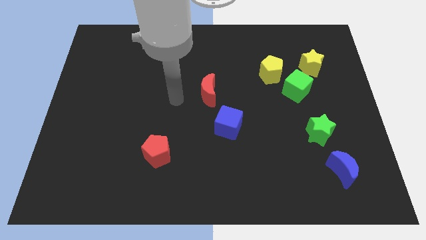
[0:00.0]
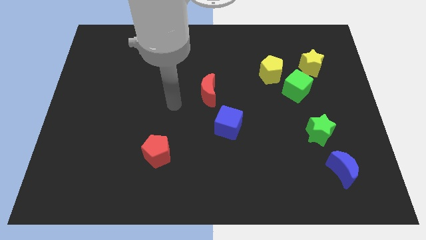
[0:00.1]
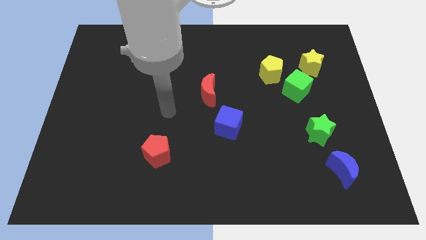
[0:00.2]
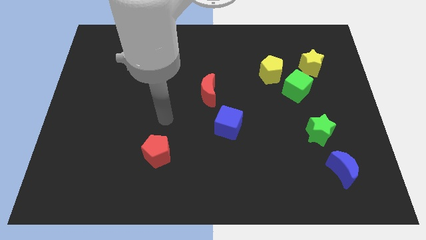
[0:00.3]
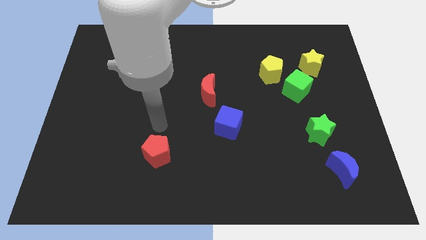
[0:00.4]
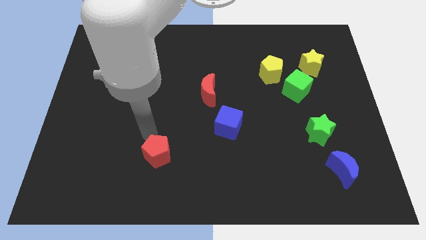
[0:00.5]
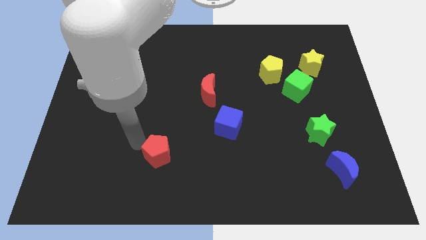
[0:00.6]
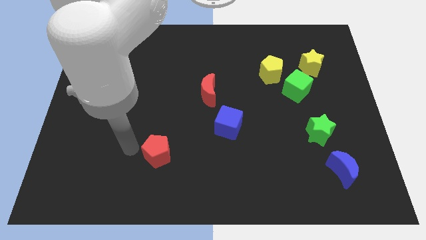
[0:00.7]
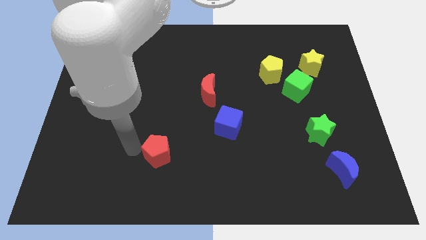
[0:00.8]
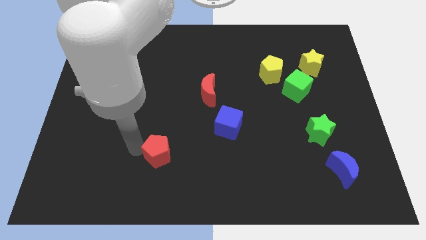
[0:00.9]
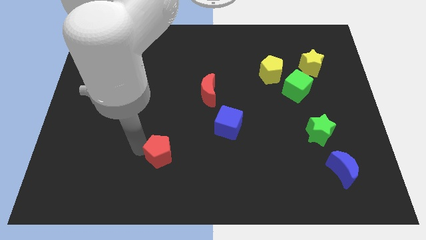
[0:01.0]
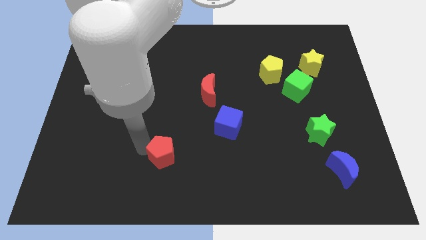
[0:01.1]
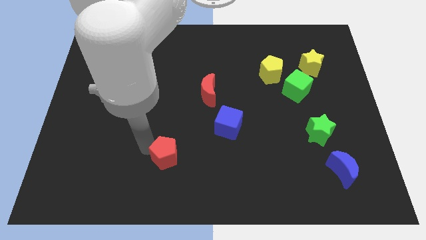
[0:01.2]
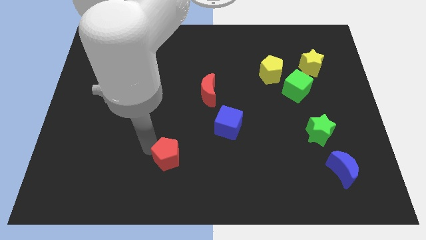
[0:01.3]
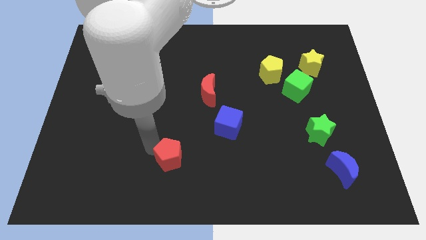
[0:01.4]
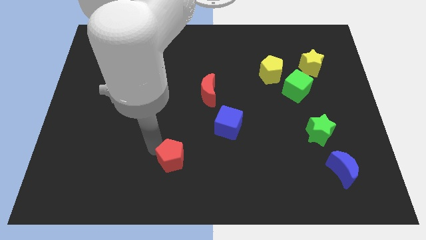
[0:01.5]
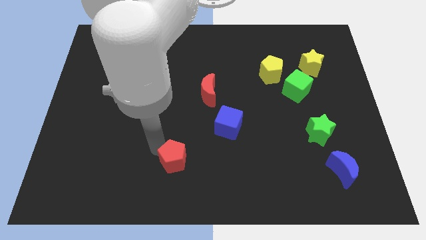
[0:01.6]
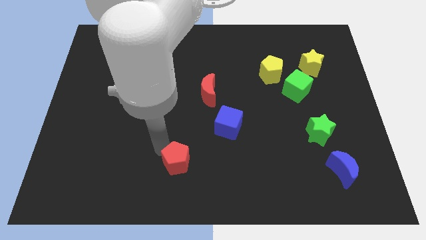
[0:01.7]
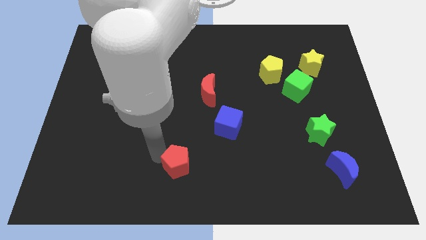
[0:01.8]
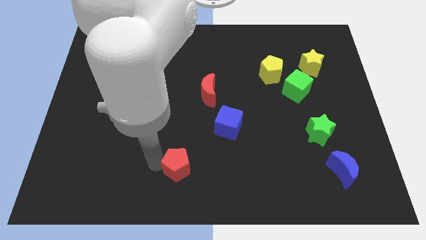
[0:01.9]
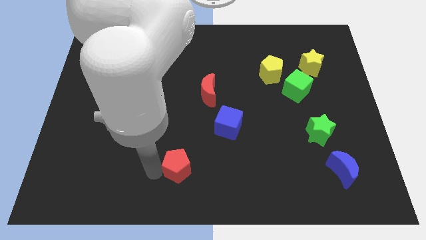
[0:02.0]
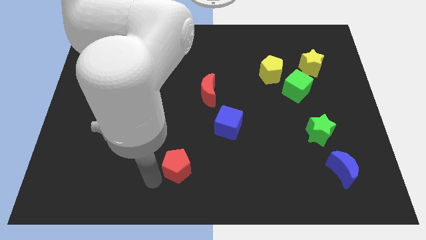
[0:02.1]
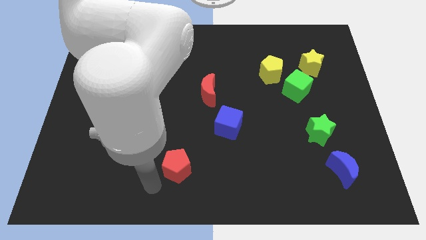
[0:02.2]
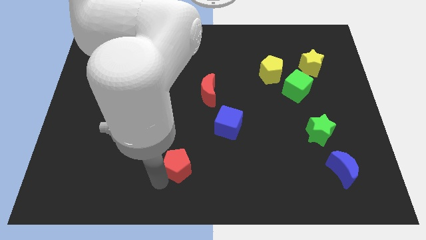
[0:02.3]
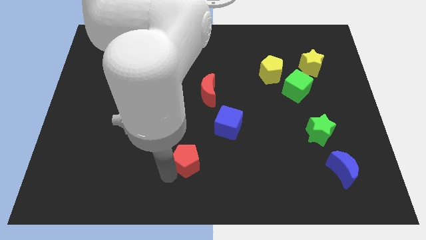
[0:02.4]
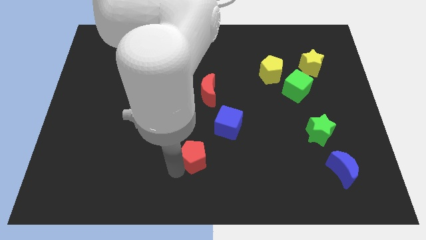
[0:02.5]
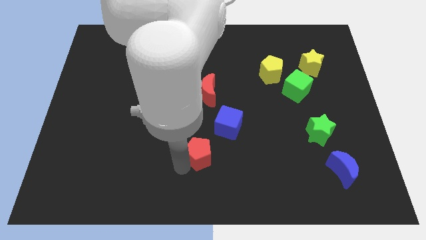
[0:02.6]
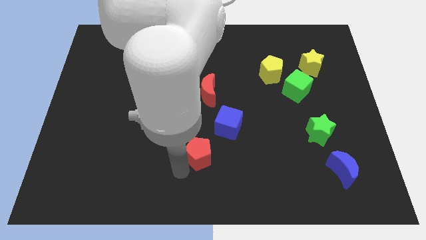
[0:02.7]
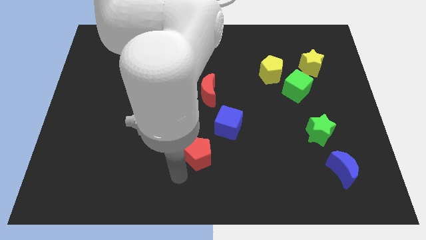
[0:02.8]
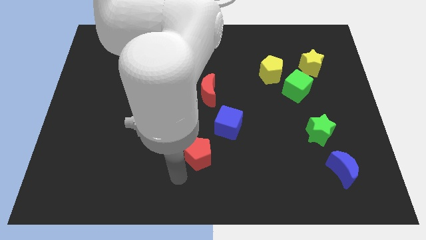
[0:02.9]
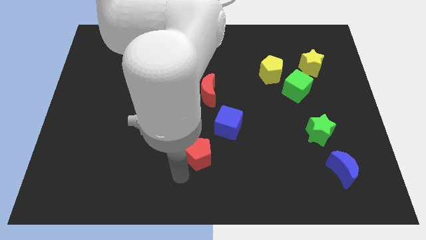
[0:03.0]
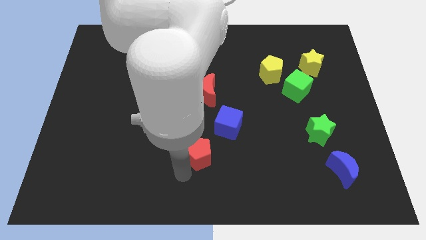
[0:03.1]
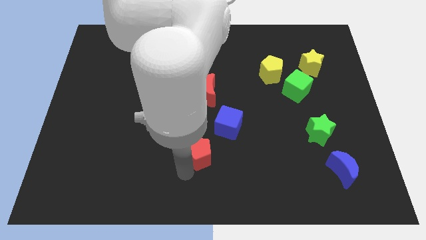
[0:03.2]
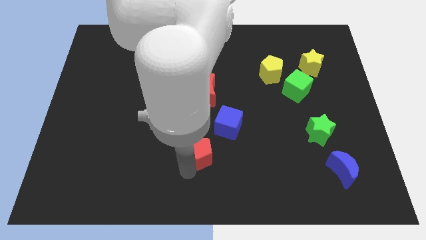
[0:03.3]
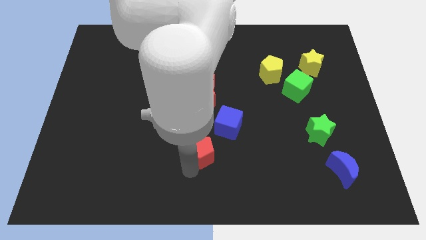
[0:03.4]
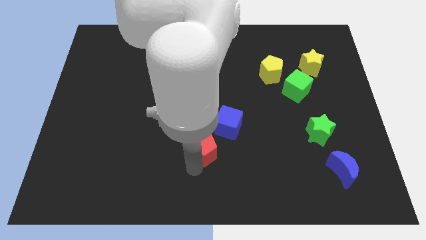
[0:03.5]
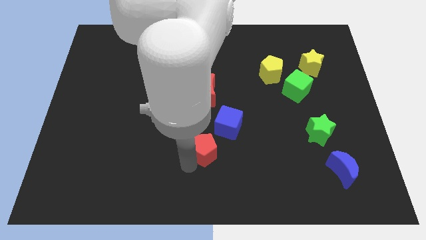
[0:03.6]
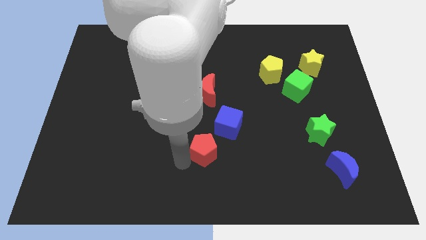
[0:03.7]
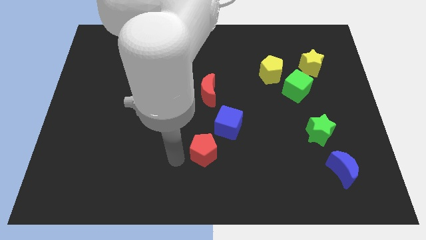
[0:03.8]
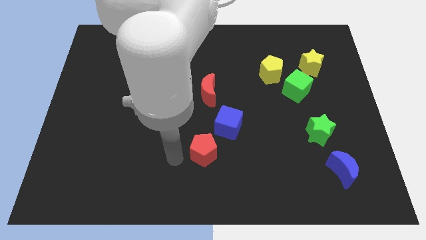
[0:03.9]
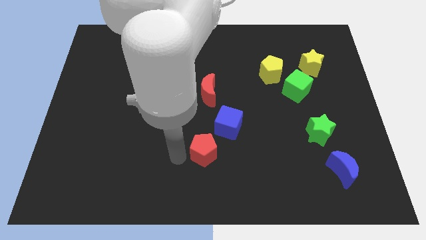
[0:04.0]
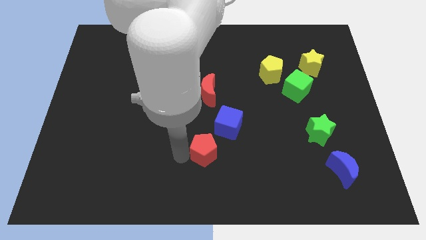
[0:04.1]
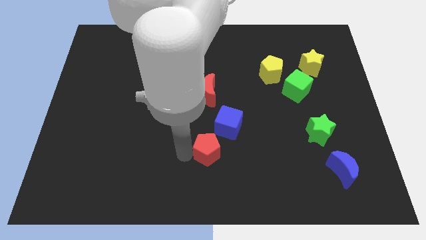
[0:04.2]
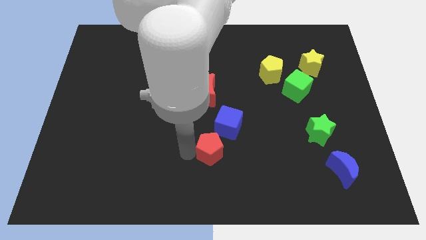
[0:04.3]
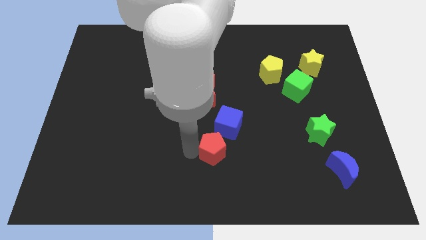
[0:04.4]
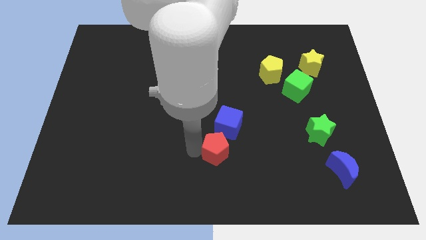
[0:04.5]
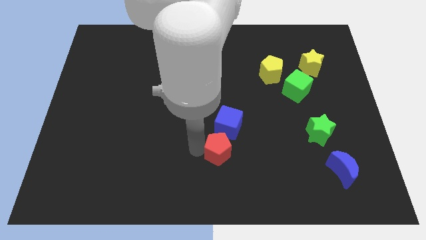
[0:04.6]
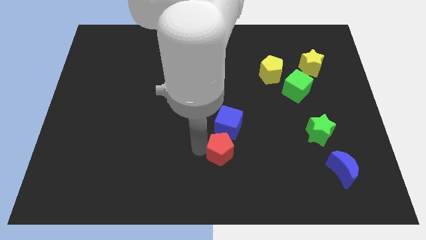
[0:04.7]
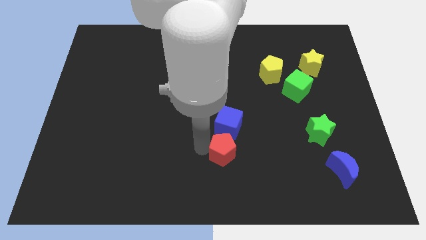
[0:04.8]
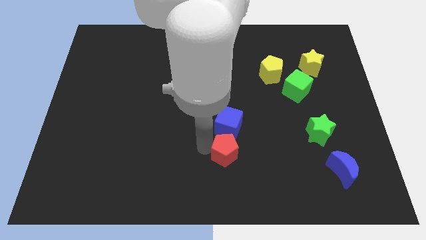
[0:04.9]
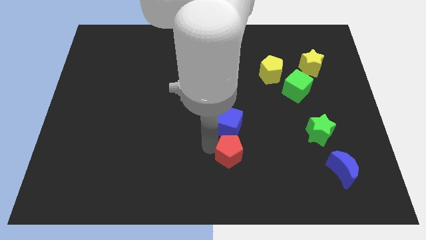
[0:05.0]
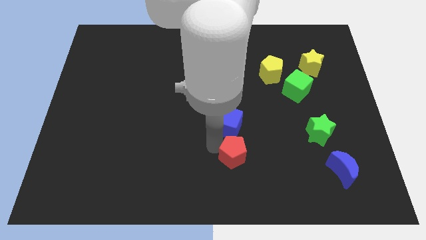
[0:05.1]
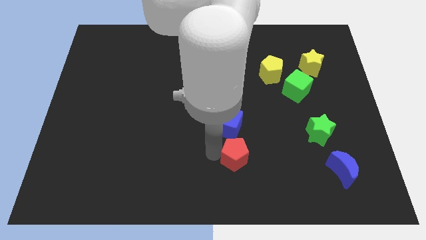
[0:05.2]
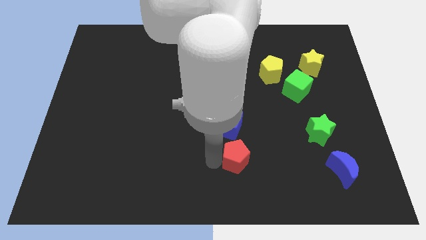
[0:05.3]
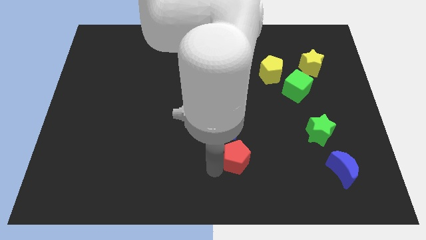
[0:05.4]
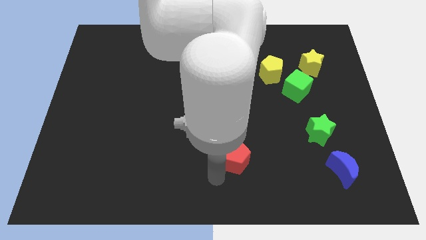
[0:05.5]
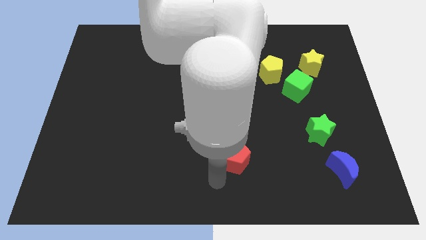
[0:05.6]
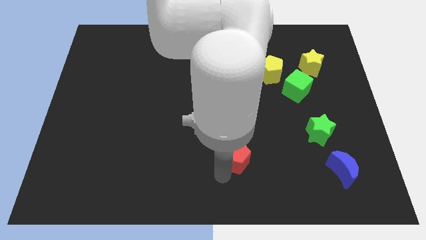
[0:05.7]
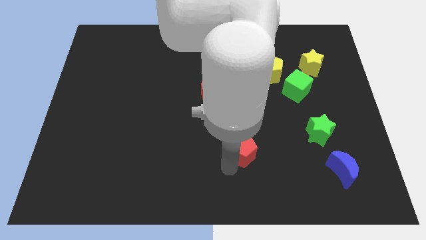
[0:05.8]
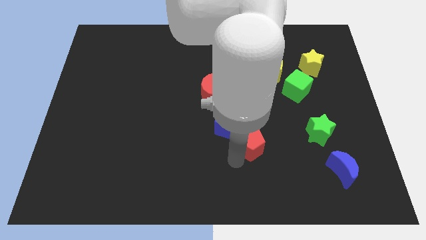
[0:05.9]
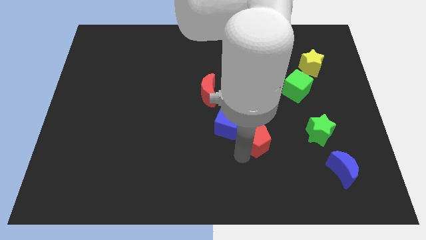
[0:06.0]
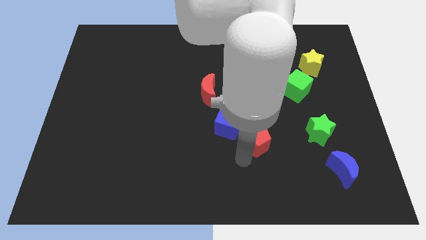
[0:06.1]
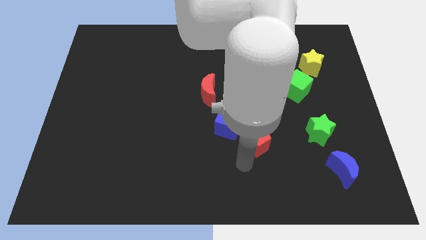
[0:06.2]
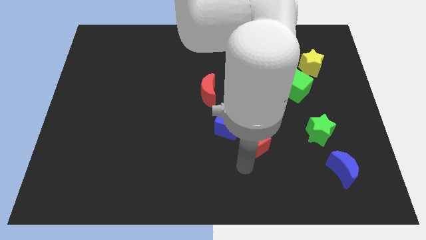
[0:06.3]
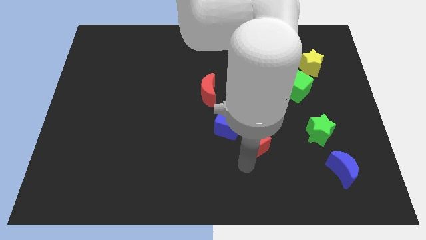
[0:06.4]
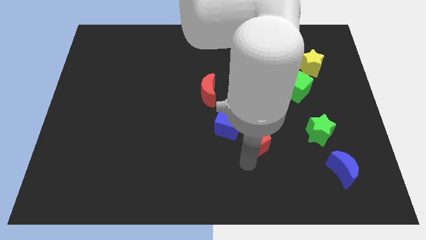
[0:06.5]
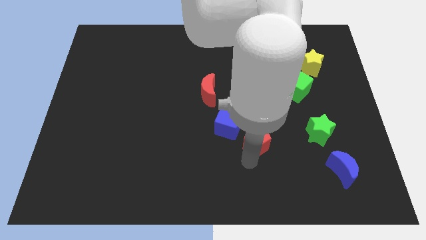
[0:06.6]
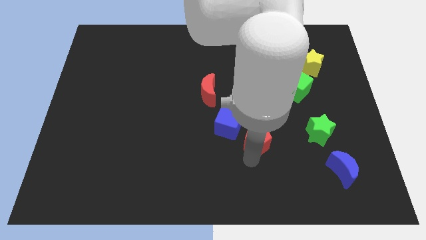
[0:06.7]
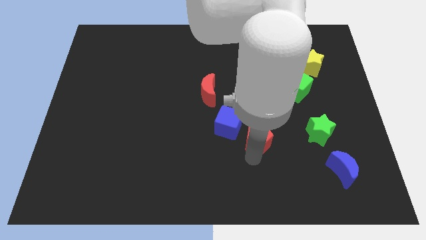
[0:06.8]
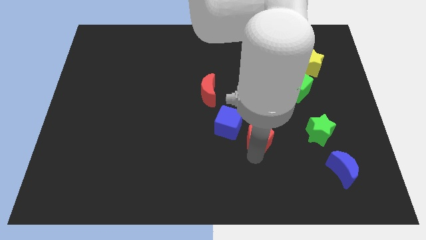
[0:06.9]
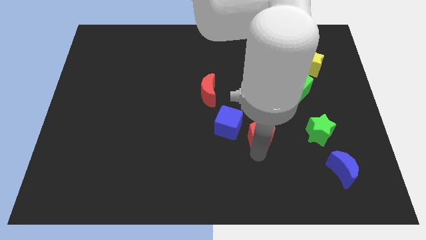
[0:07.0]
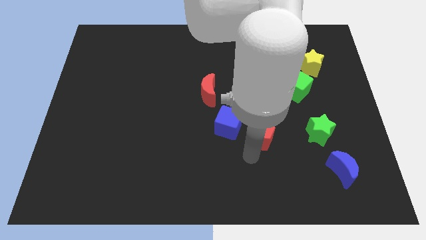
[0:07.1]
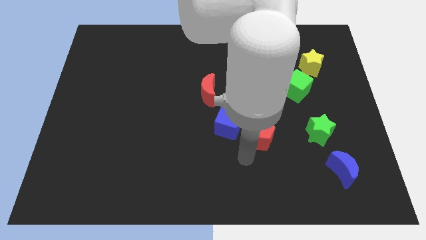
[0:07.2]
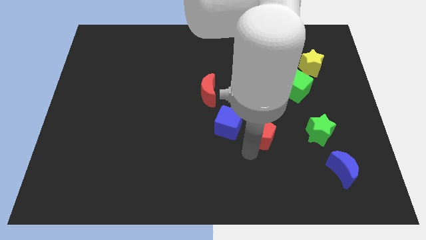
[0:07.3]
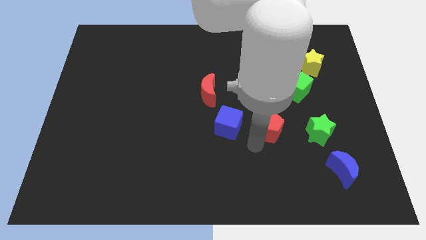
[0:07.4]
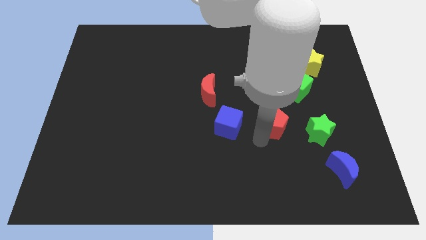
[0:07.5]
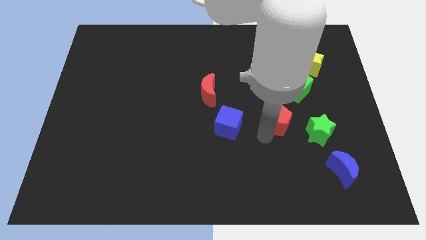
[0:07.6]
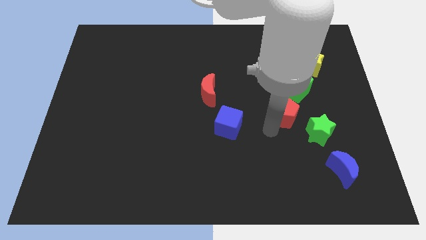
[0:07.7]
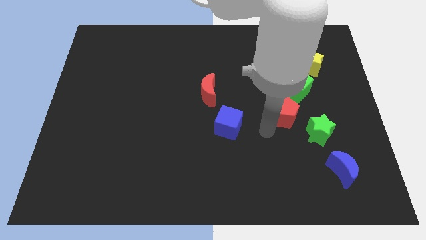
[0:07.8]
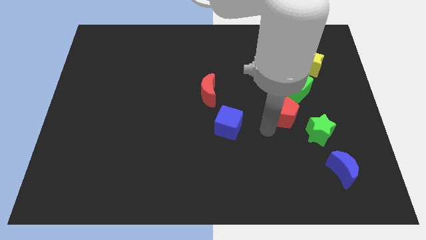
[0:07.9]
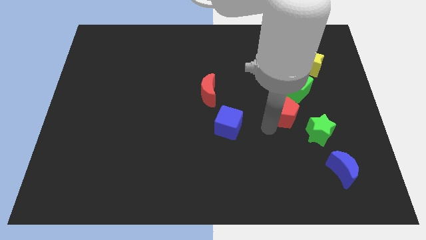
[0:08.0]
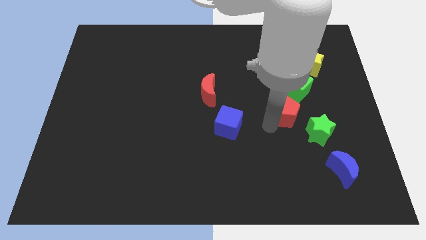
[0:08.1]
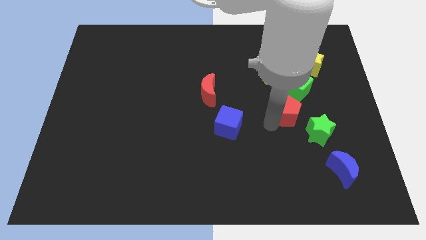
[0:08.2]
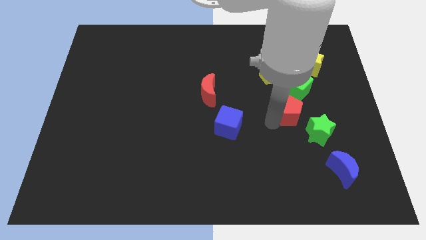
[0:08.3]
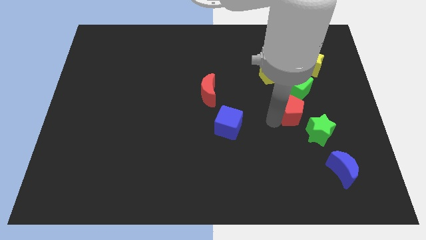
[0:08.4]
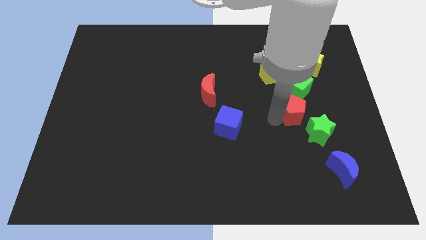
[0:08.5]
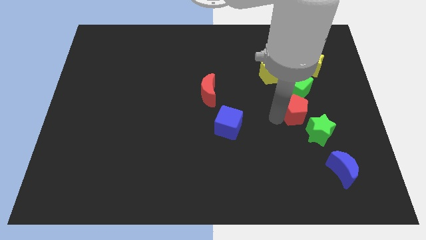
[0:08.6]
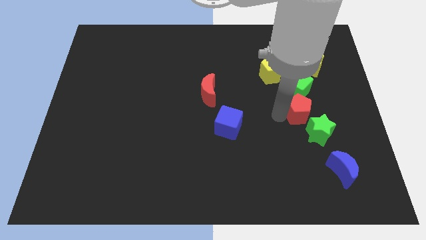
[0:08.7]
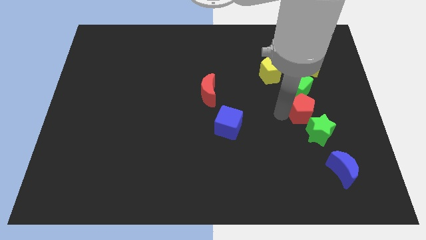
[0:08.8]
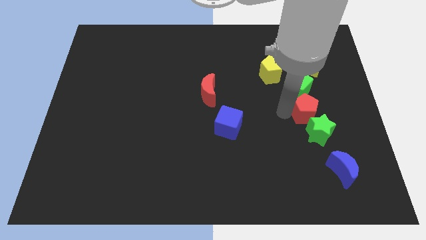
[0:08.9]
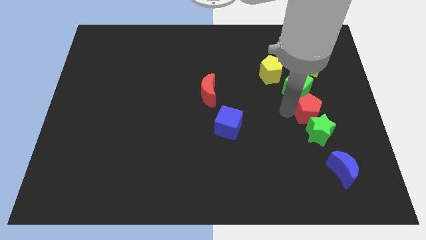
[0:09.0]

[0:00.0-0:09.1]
move the red pentagon to the bottom side of the yellow star
